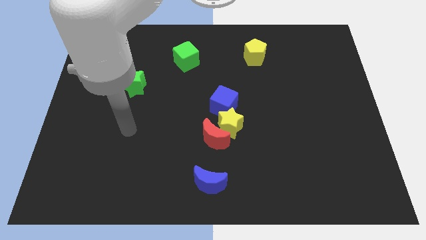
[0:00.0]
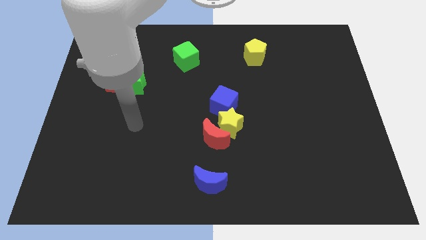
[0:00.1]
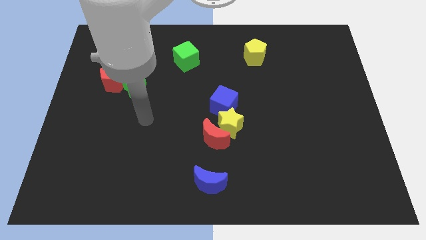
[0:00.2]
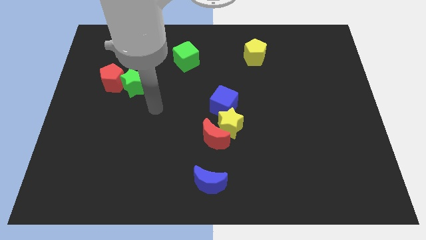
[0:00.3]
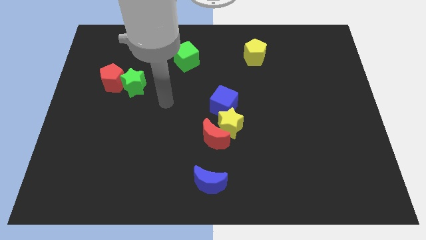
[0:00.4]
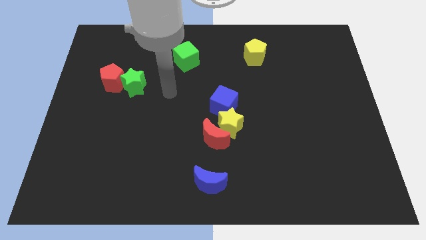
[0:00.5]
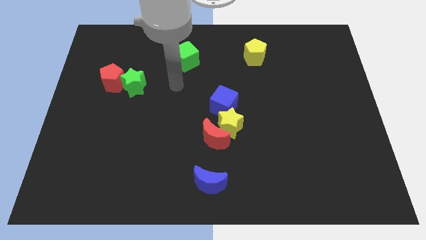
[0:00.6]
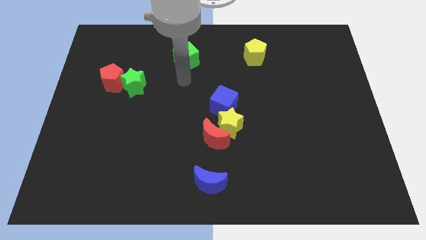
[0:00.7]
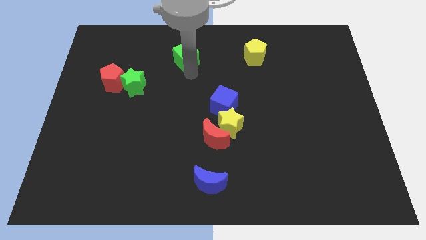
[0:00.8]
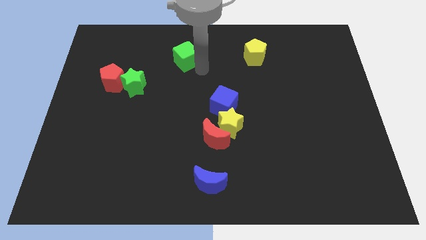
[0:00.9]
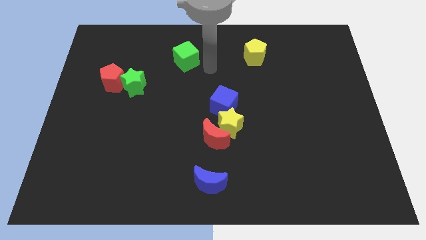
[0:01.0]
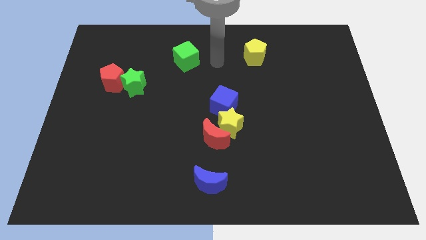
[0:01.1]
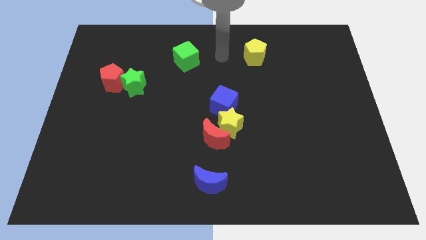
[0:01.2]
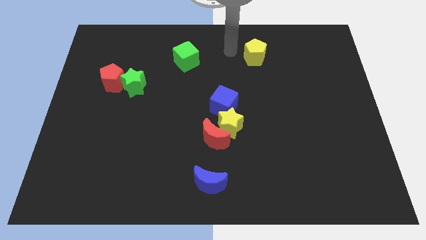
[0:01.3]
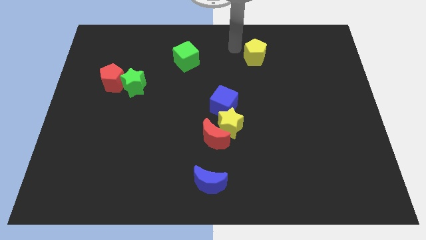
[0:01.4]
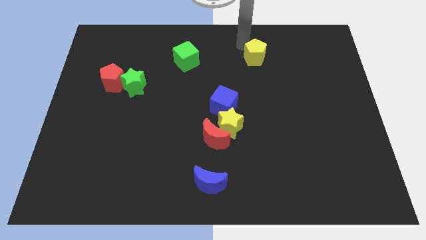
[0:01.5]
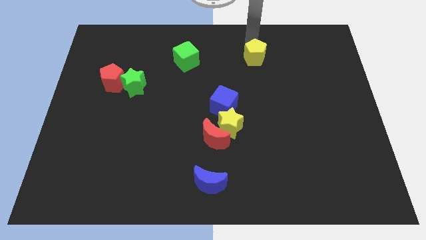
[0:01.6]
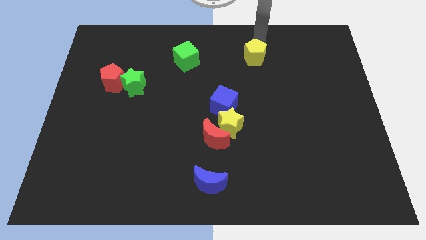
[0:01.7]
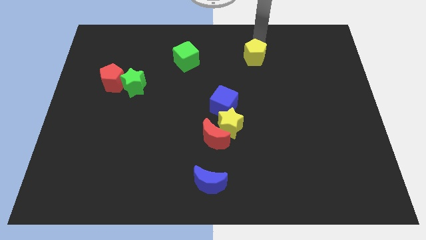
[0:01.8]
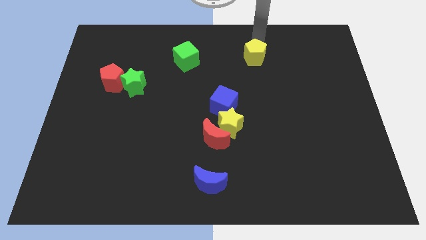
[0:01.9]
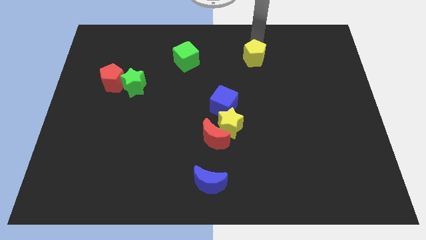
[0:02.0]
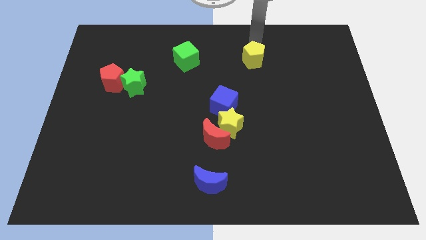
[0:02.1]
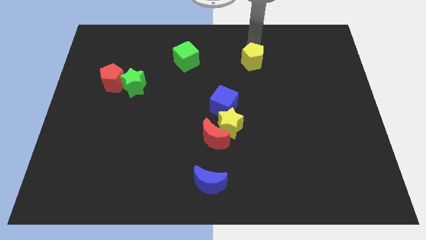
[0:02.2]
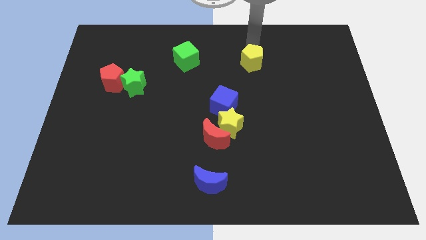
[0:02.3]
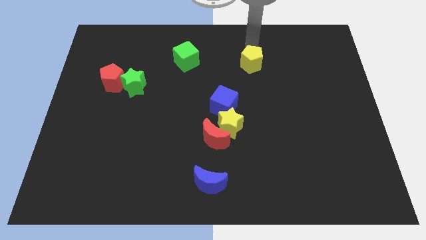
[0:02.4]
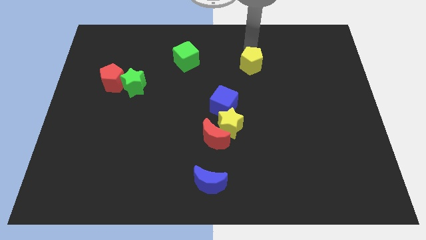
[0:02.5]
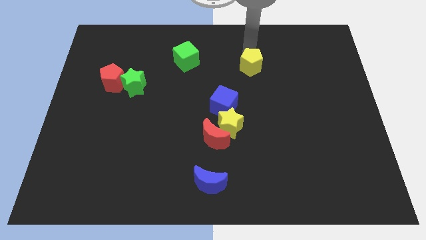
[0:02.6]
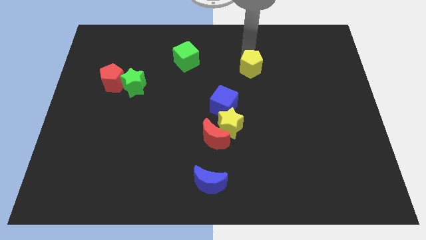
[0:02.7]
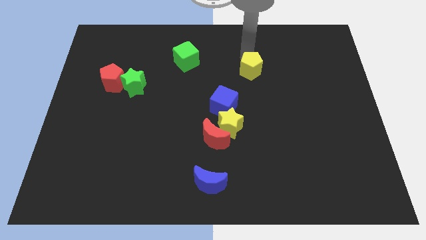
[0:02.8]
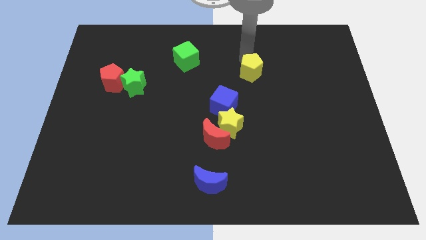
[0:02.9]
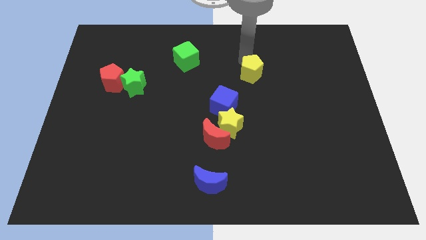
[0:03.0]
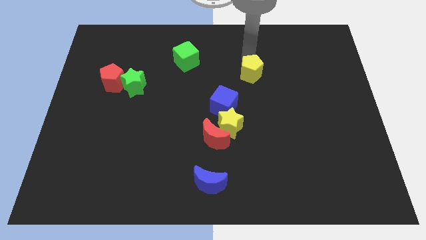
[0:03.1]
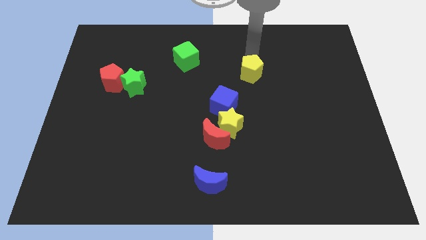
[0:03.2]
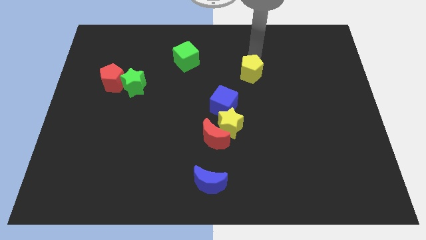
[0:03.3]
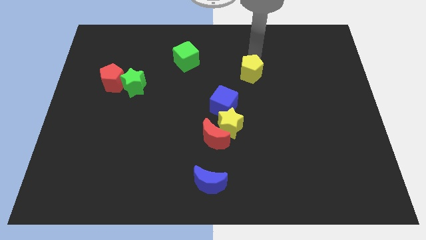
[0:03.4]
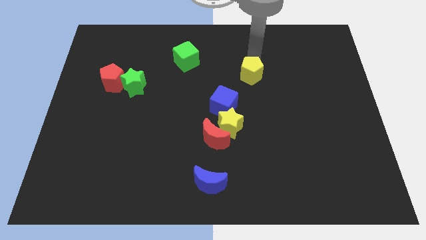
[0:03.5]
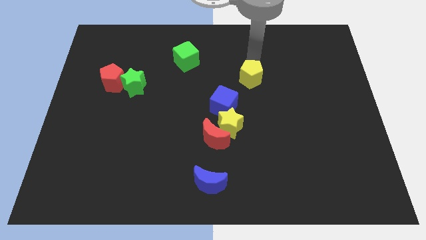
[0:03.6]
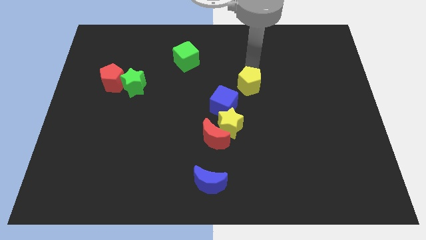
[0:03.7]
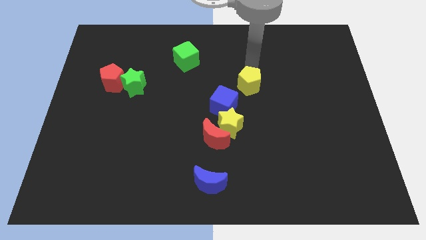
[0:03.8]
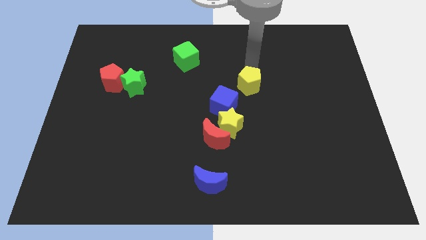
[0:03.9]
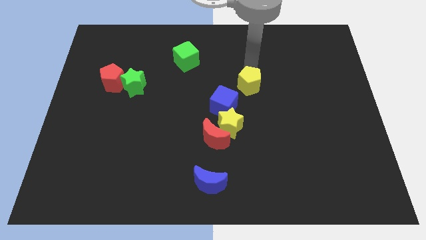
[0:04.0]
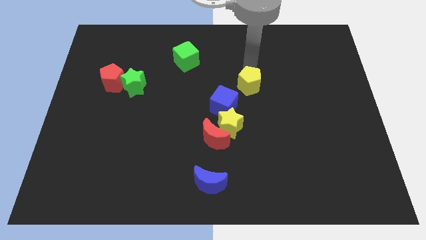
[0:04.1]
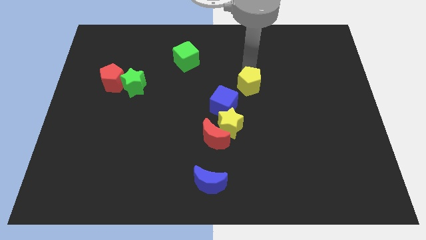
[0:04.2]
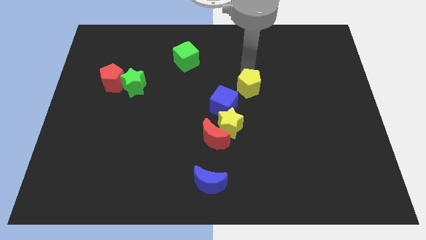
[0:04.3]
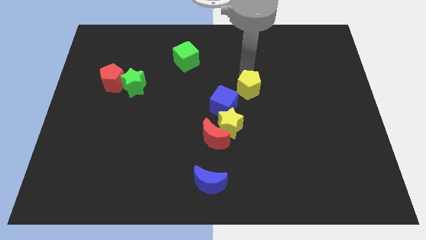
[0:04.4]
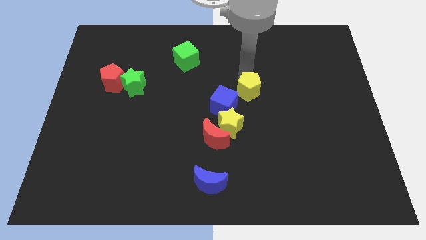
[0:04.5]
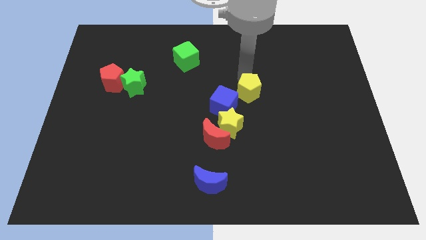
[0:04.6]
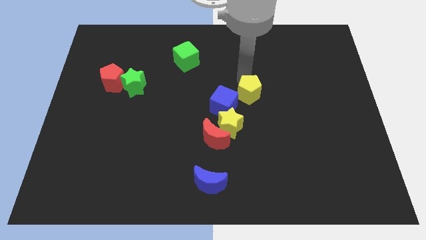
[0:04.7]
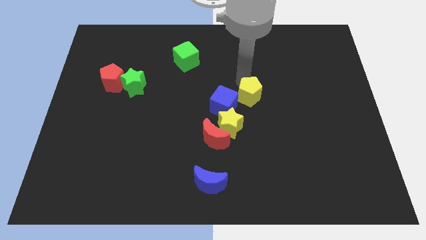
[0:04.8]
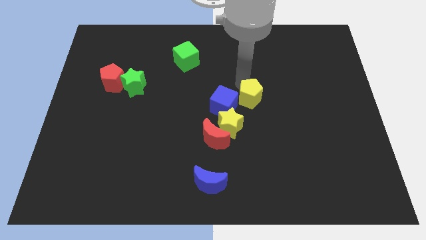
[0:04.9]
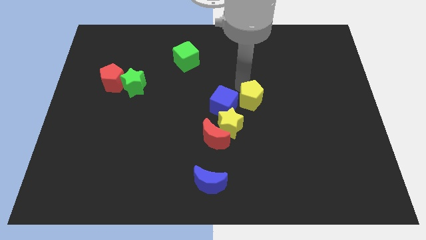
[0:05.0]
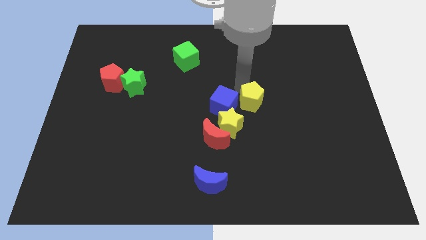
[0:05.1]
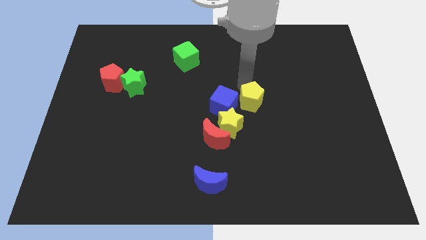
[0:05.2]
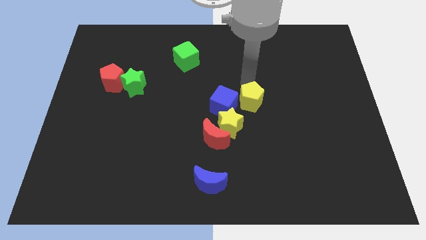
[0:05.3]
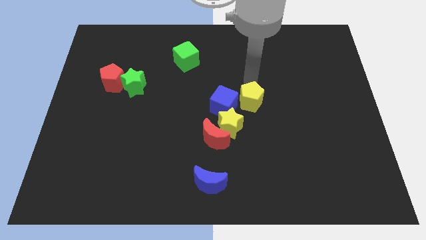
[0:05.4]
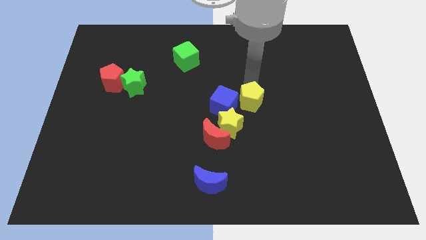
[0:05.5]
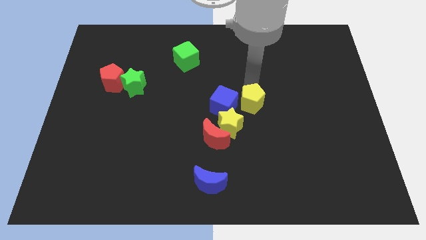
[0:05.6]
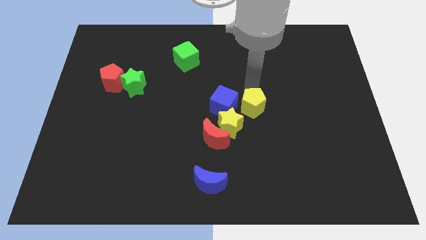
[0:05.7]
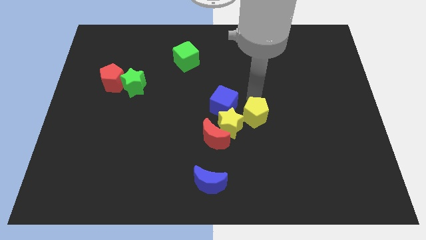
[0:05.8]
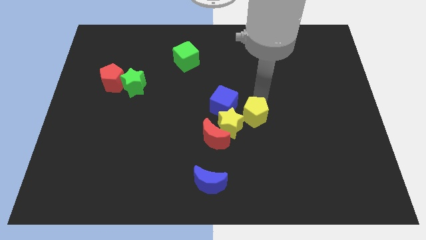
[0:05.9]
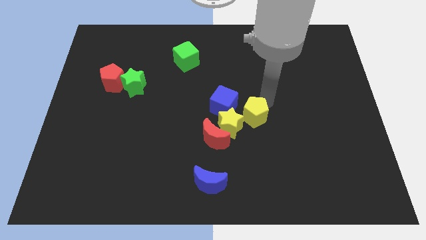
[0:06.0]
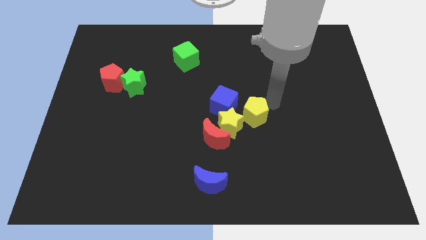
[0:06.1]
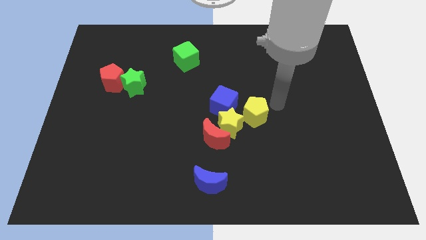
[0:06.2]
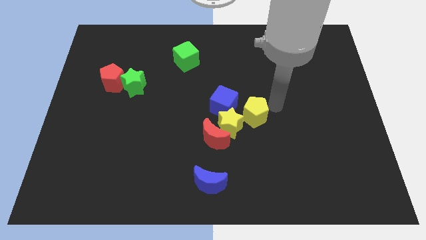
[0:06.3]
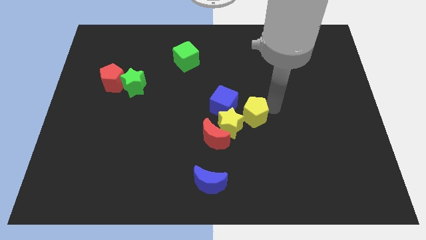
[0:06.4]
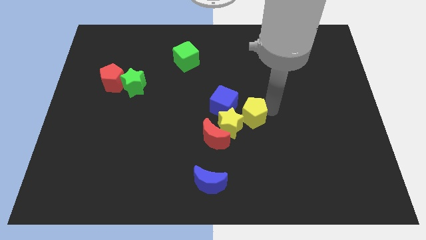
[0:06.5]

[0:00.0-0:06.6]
slide the yellow pentagon next to the yellow star

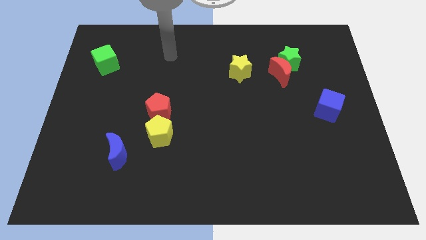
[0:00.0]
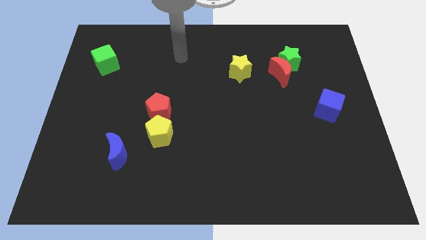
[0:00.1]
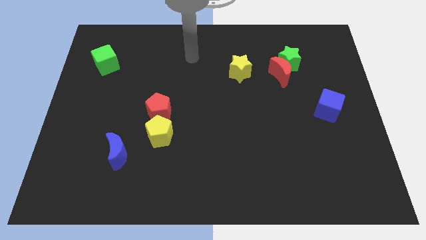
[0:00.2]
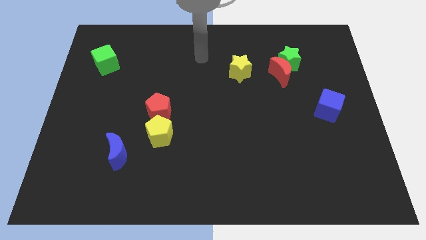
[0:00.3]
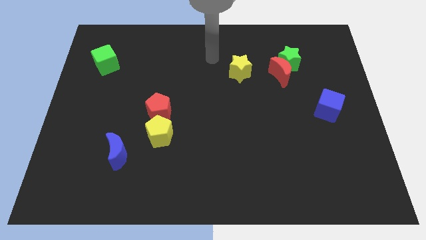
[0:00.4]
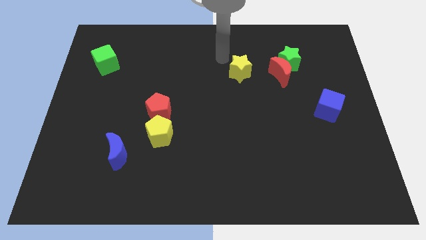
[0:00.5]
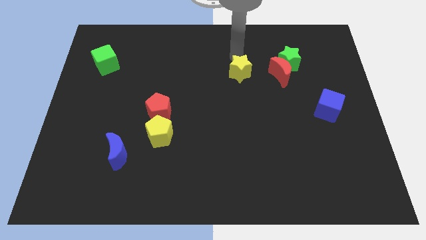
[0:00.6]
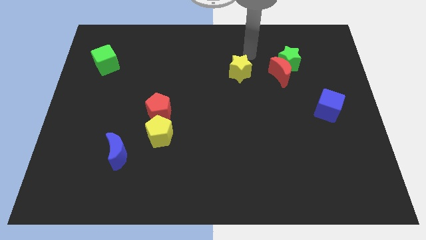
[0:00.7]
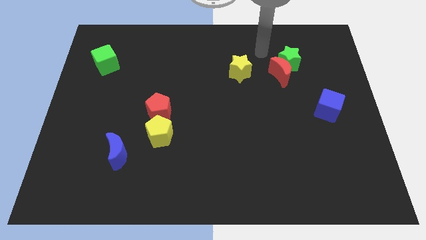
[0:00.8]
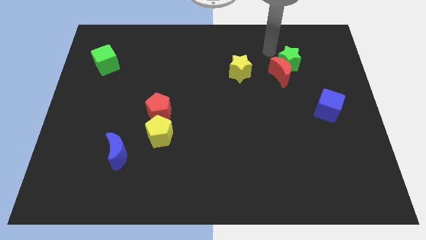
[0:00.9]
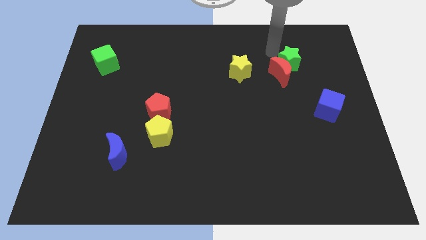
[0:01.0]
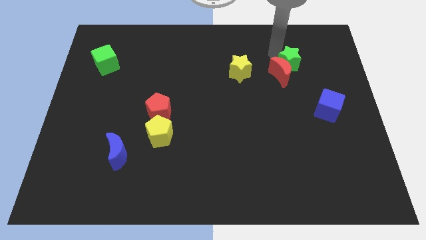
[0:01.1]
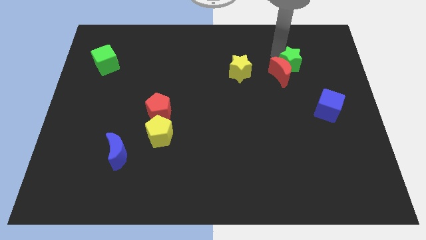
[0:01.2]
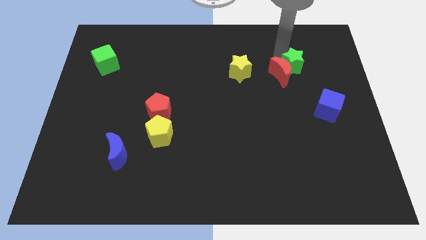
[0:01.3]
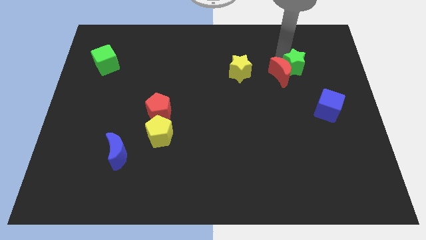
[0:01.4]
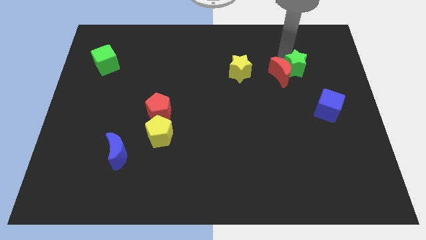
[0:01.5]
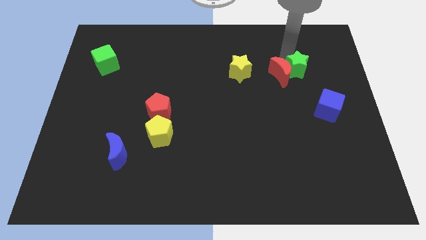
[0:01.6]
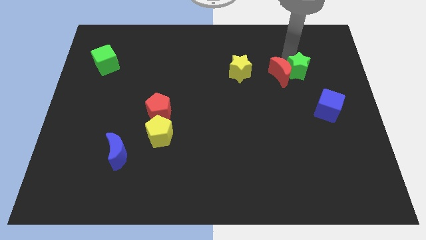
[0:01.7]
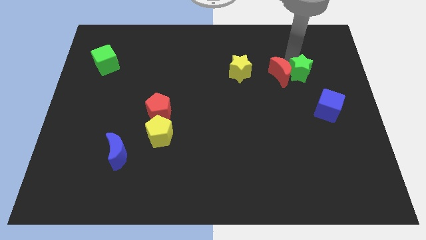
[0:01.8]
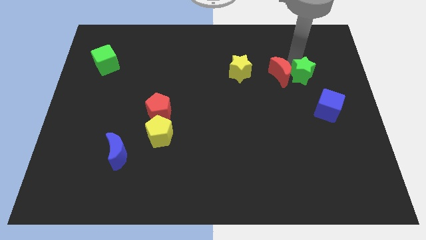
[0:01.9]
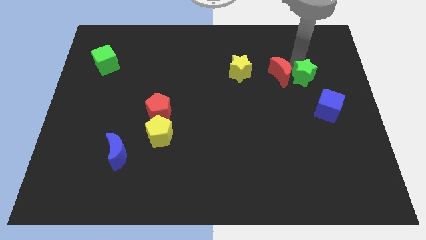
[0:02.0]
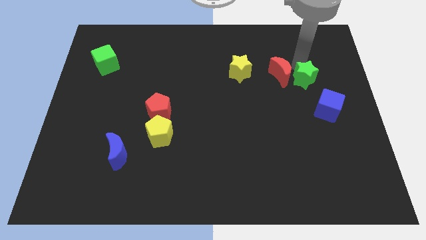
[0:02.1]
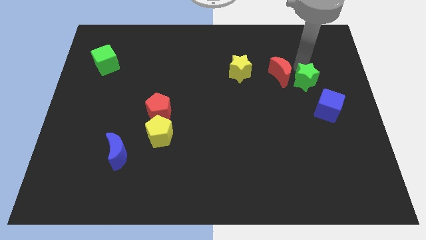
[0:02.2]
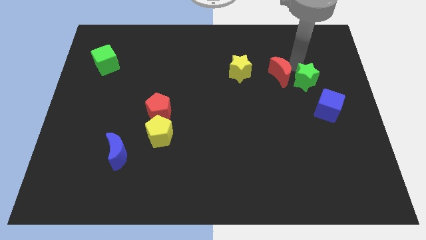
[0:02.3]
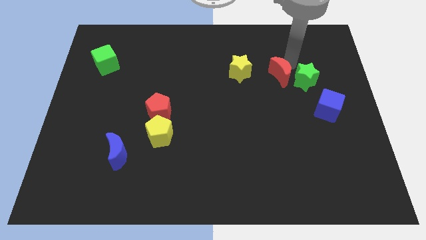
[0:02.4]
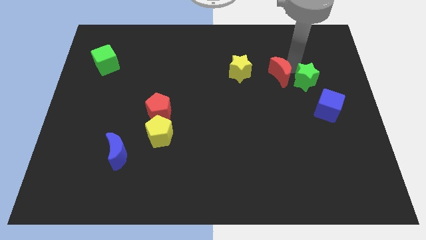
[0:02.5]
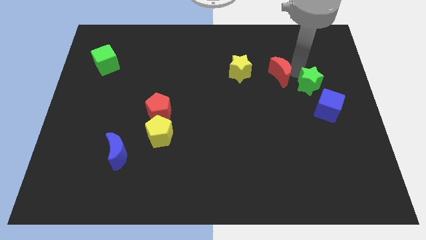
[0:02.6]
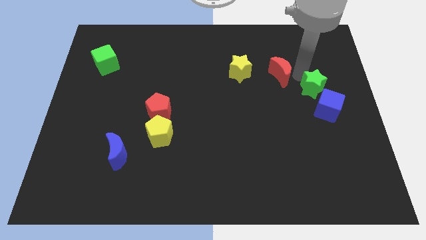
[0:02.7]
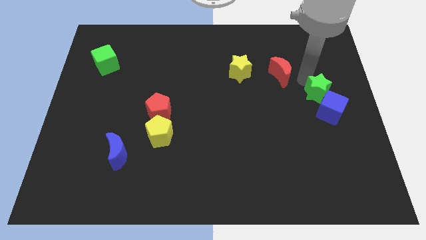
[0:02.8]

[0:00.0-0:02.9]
move the green star towards the blue cube
